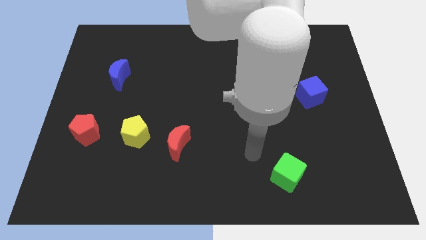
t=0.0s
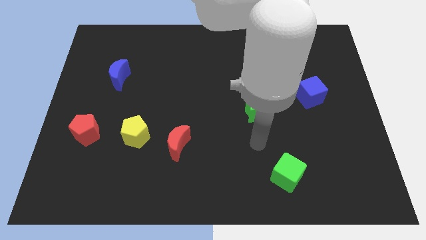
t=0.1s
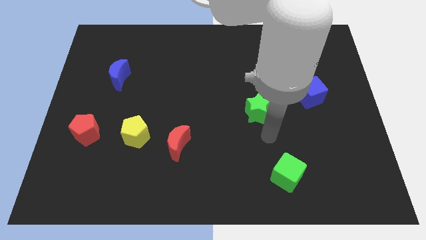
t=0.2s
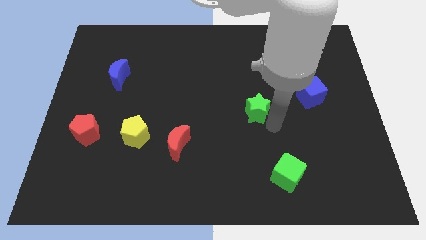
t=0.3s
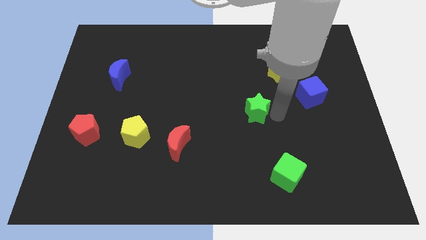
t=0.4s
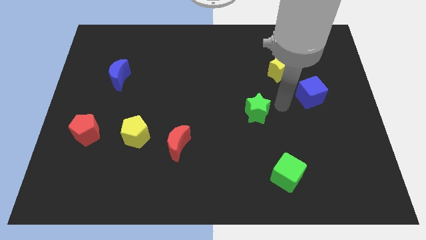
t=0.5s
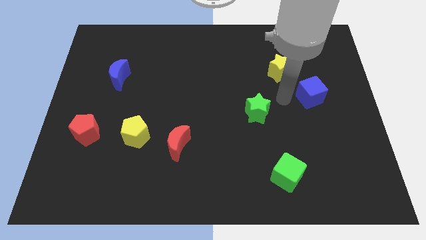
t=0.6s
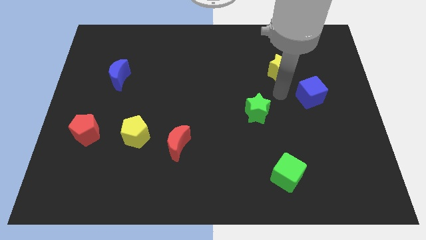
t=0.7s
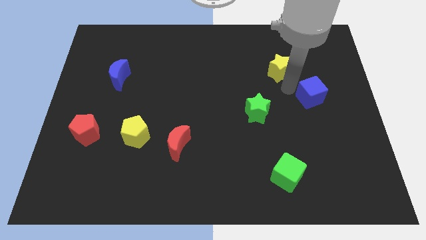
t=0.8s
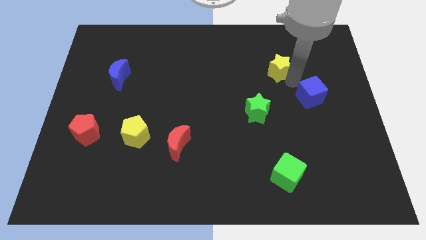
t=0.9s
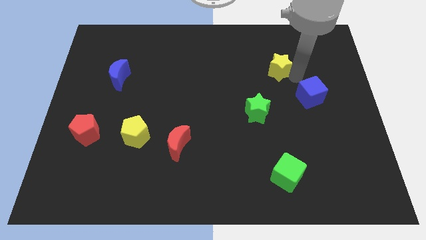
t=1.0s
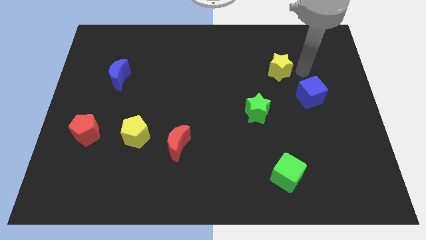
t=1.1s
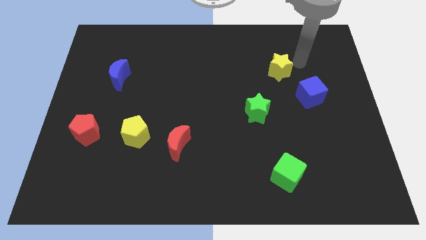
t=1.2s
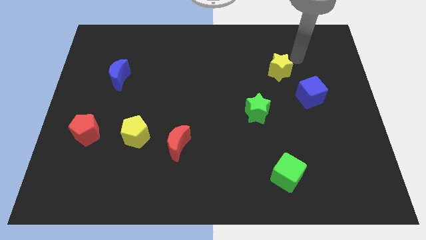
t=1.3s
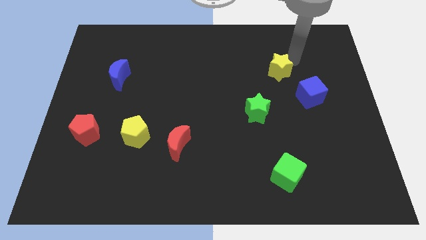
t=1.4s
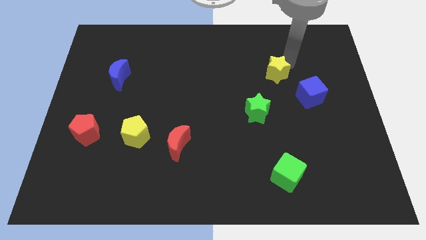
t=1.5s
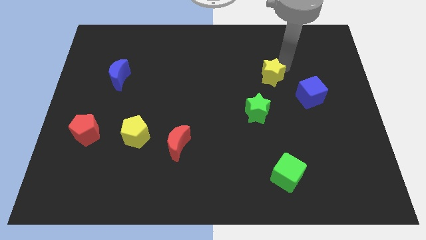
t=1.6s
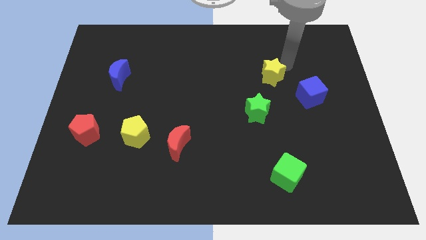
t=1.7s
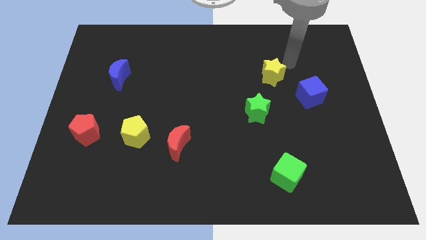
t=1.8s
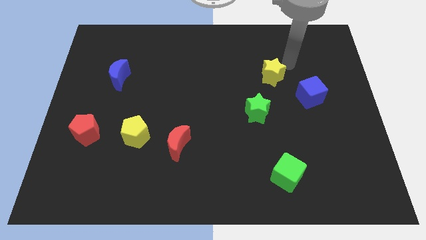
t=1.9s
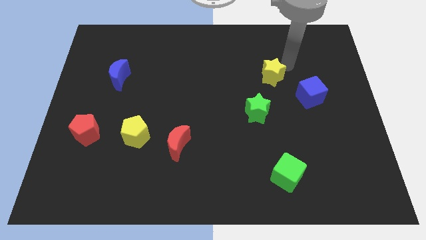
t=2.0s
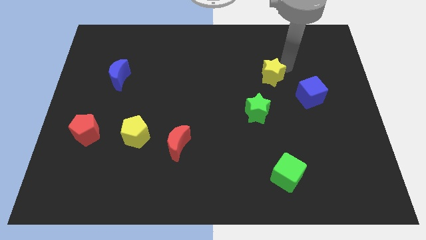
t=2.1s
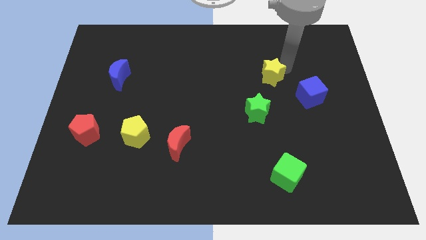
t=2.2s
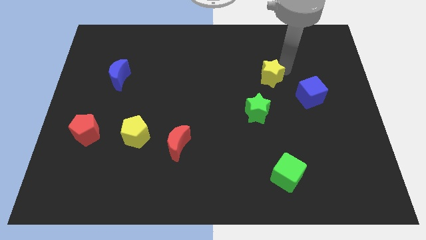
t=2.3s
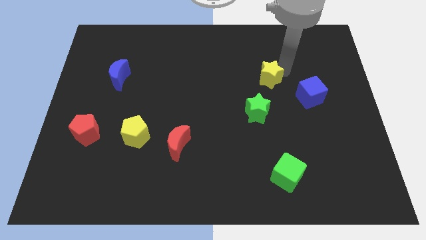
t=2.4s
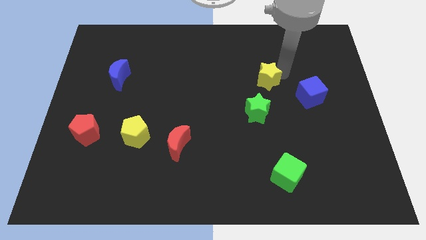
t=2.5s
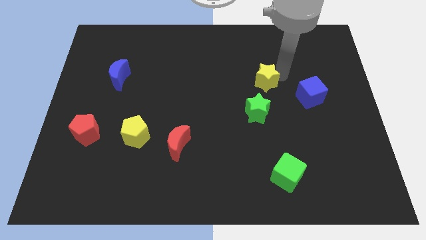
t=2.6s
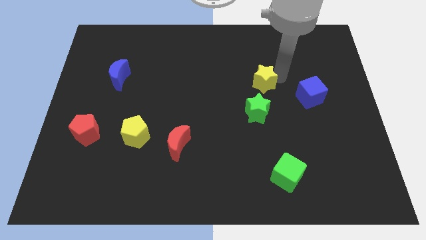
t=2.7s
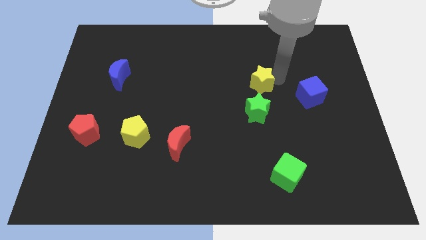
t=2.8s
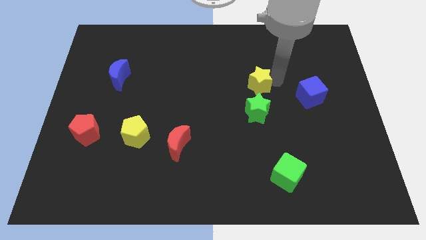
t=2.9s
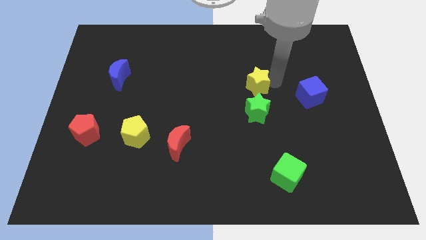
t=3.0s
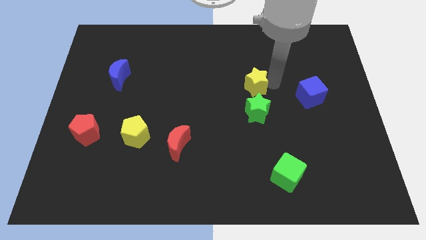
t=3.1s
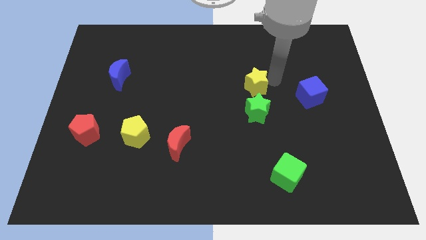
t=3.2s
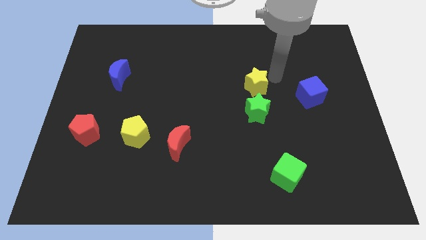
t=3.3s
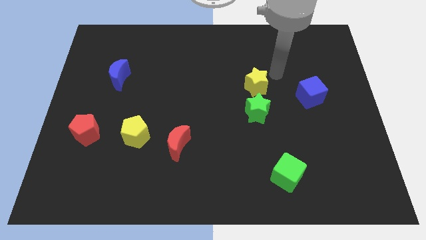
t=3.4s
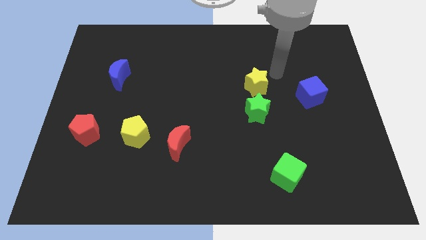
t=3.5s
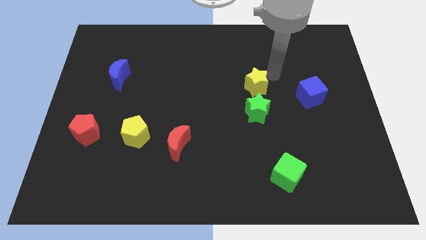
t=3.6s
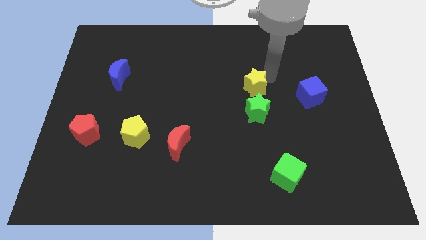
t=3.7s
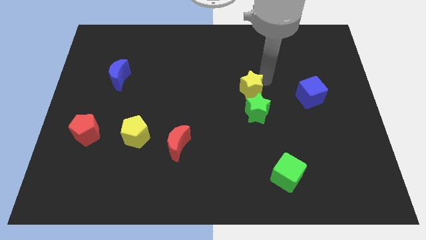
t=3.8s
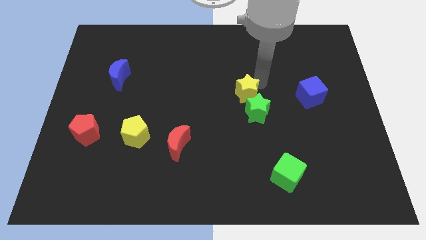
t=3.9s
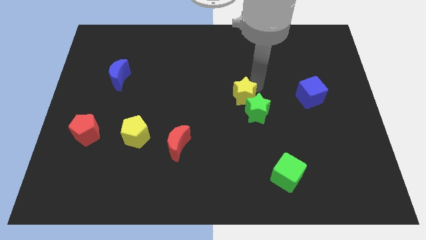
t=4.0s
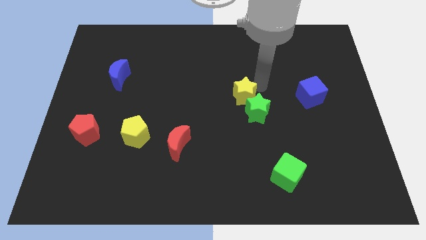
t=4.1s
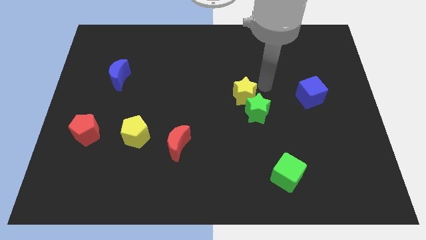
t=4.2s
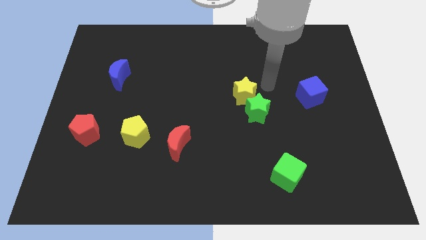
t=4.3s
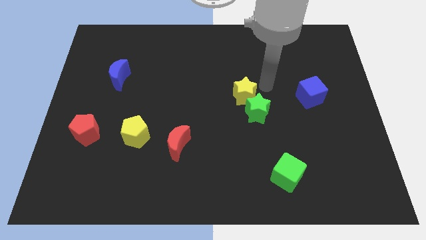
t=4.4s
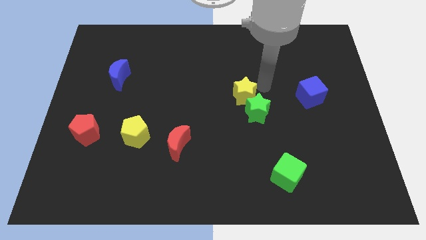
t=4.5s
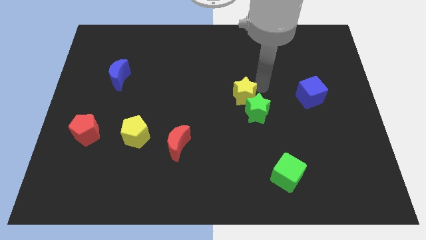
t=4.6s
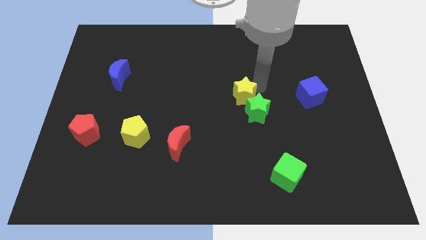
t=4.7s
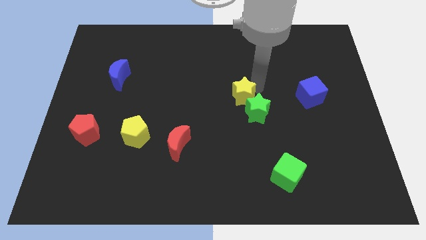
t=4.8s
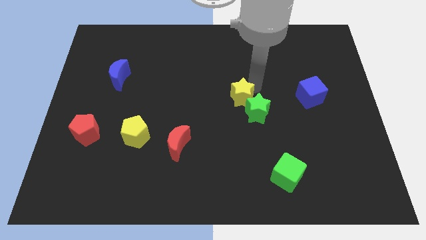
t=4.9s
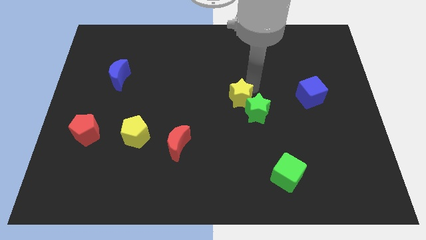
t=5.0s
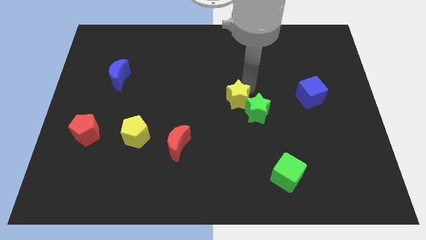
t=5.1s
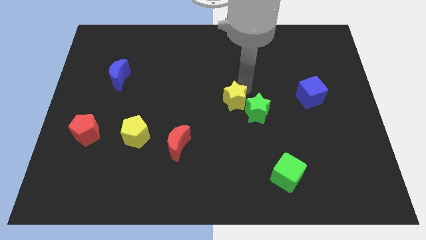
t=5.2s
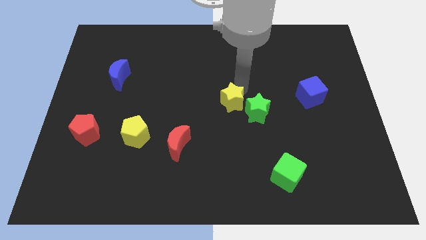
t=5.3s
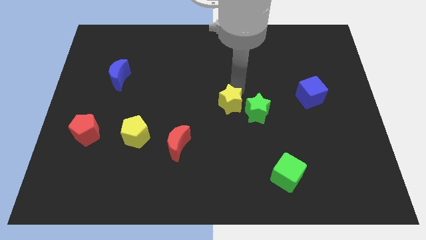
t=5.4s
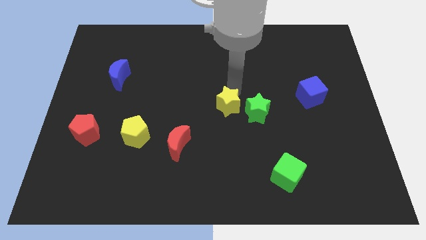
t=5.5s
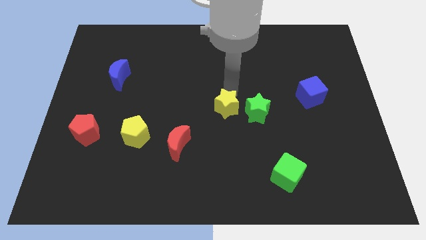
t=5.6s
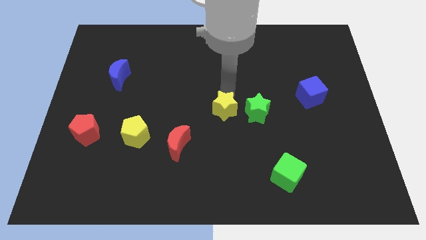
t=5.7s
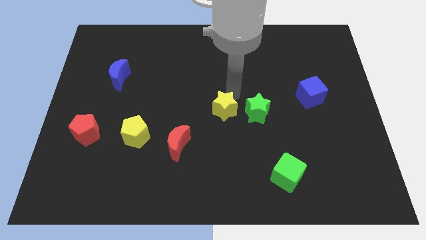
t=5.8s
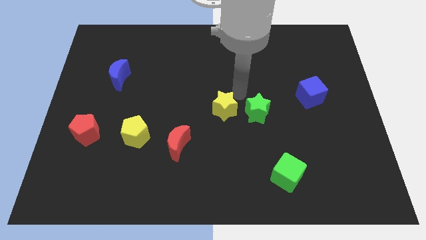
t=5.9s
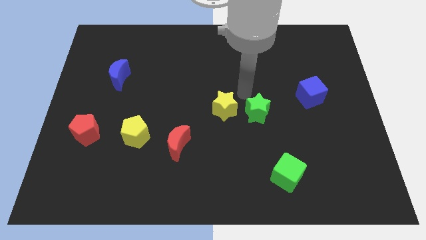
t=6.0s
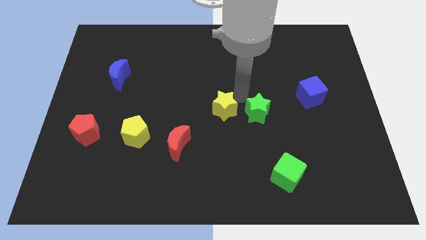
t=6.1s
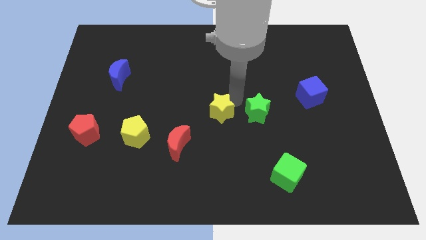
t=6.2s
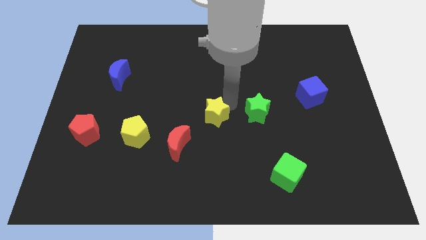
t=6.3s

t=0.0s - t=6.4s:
push the yellow star diagonally up and to the right of the red moon

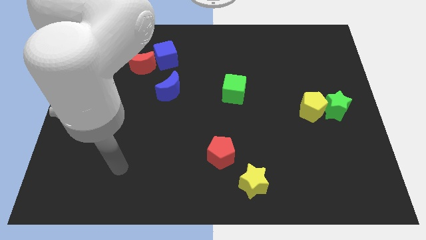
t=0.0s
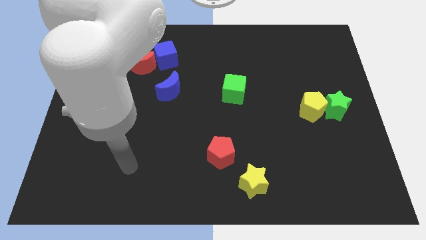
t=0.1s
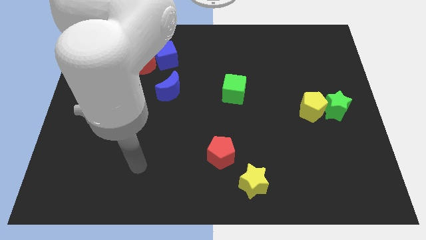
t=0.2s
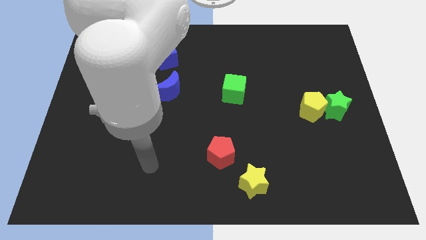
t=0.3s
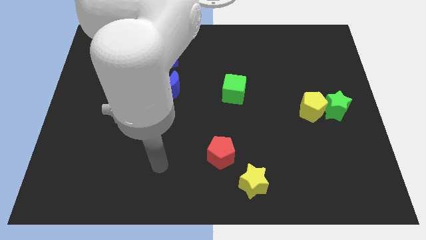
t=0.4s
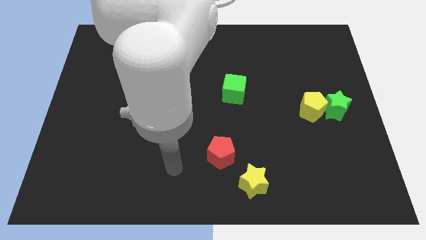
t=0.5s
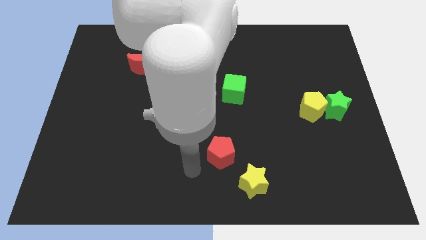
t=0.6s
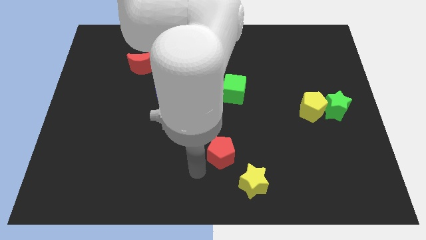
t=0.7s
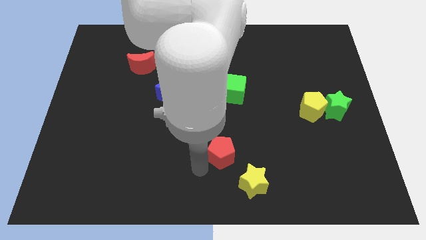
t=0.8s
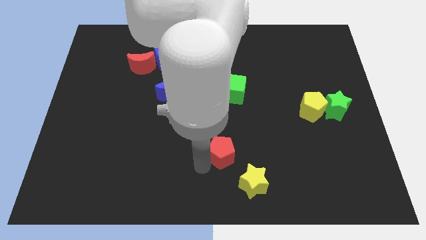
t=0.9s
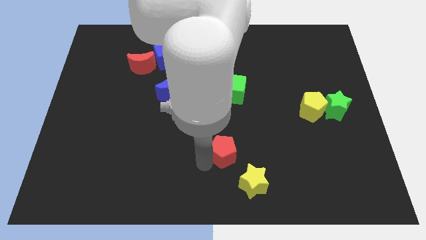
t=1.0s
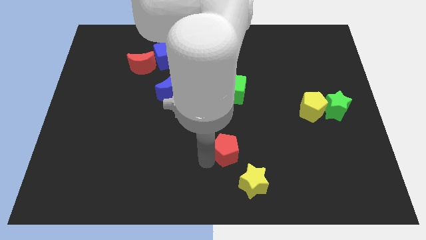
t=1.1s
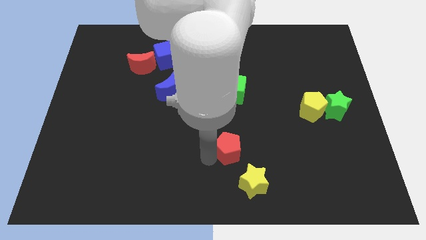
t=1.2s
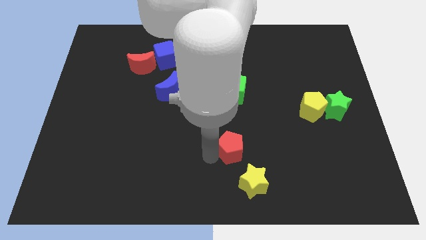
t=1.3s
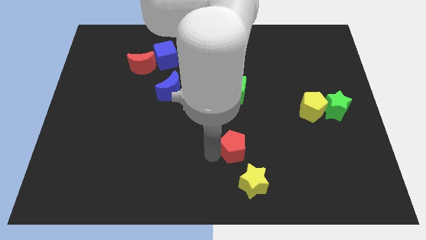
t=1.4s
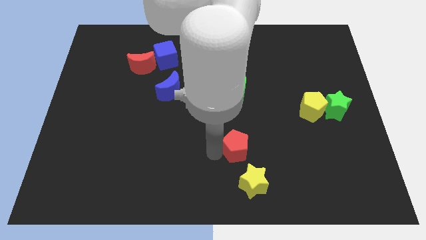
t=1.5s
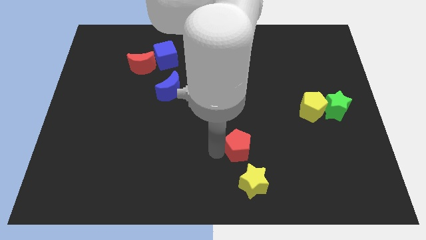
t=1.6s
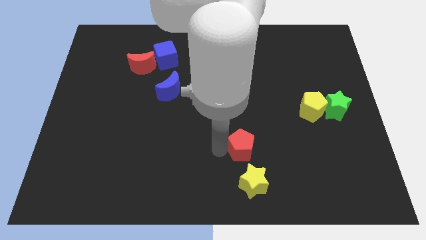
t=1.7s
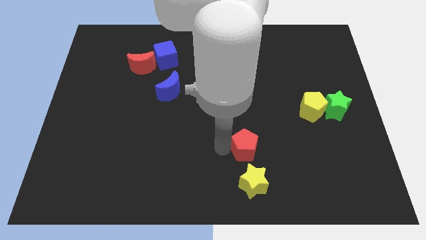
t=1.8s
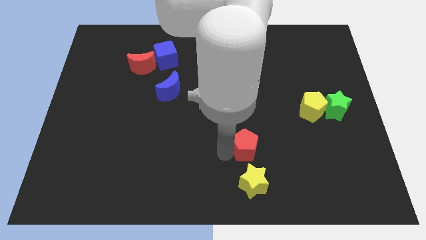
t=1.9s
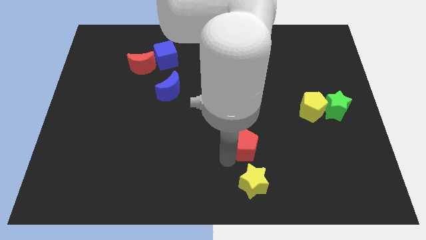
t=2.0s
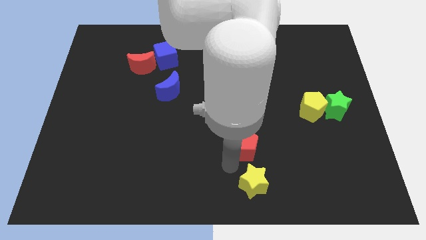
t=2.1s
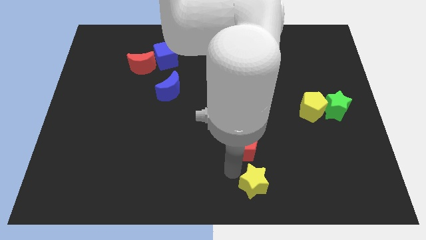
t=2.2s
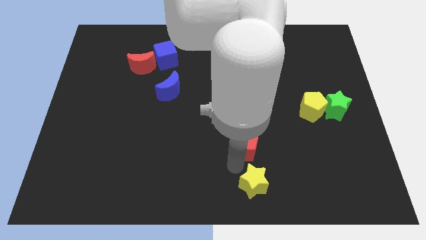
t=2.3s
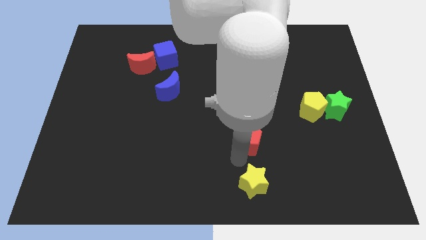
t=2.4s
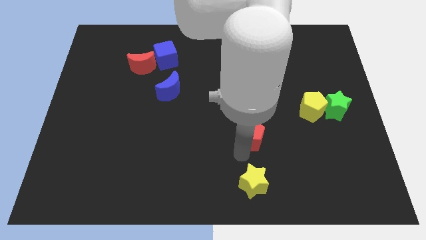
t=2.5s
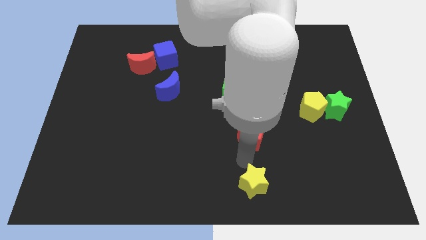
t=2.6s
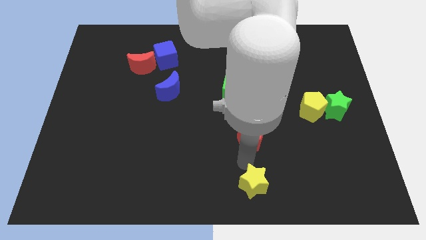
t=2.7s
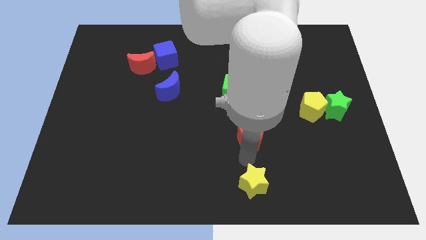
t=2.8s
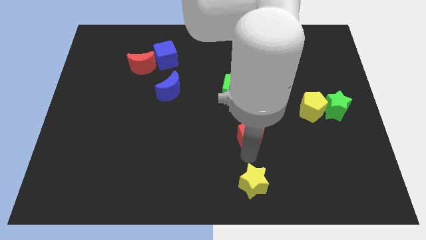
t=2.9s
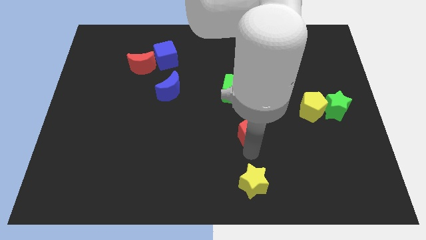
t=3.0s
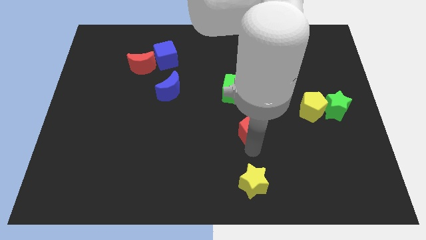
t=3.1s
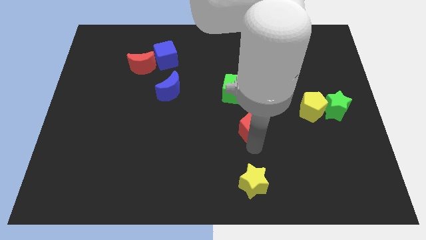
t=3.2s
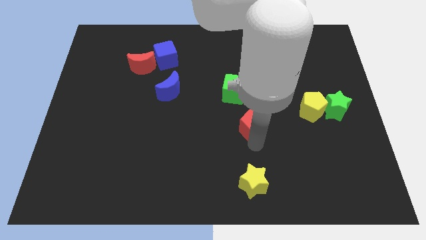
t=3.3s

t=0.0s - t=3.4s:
push the red pentagon diagonally down and to the right of the green cube
